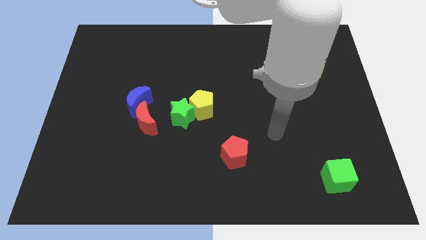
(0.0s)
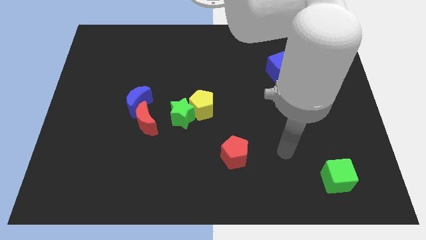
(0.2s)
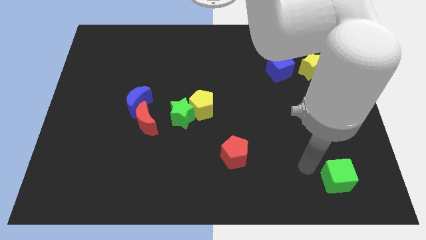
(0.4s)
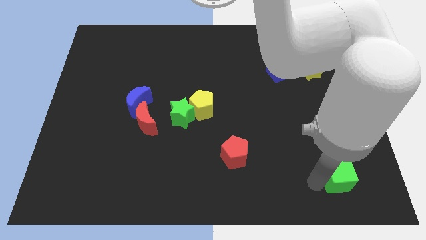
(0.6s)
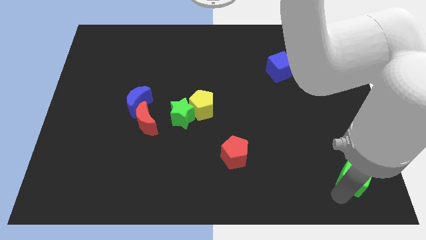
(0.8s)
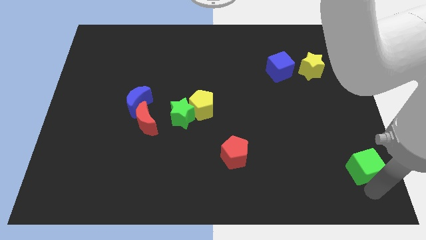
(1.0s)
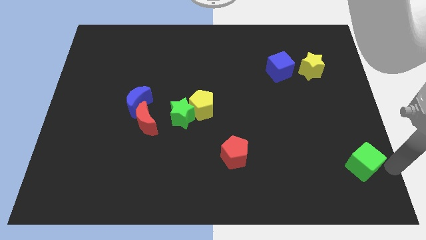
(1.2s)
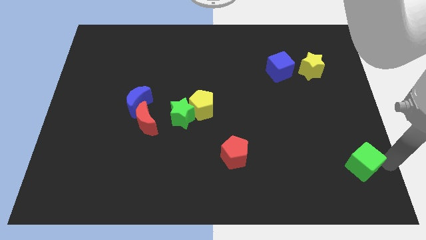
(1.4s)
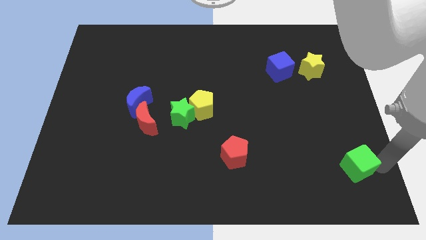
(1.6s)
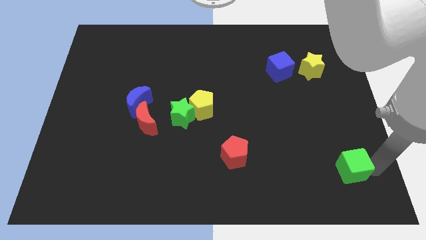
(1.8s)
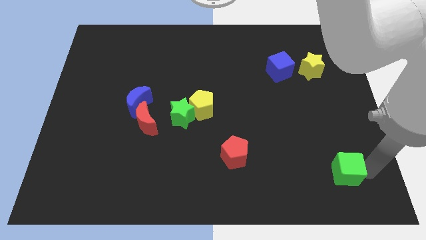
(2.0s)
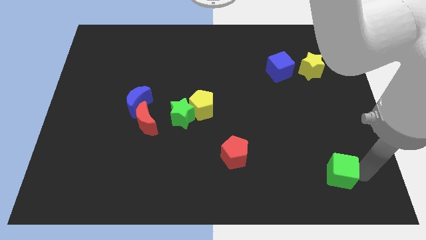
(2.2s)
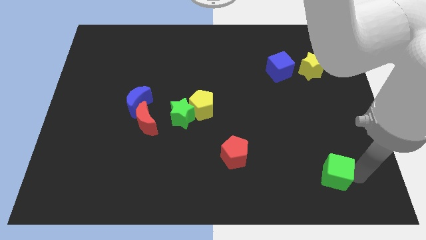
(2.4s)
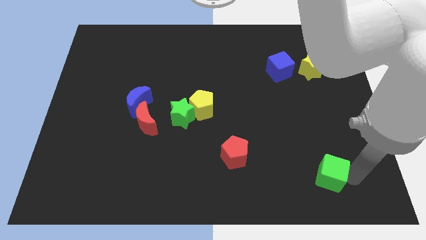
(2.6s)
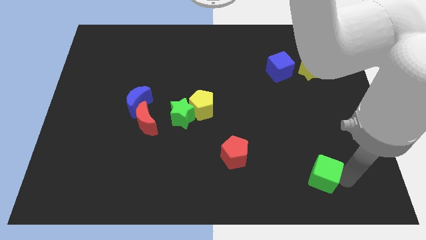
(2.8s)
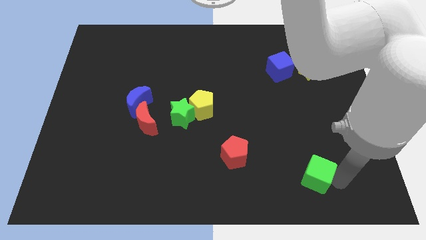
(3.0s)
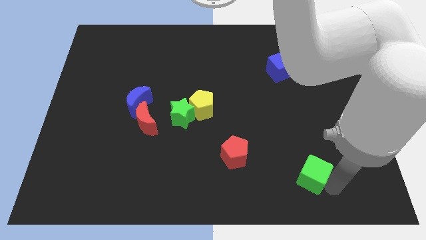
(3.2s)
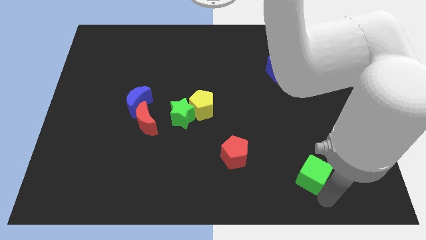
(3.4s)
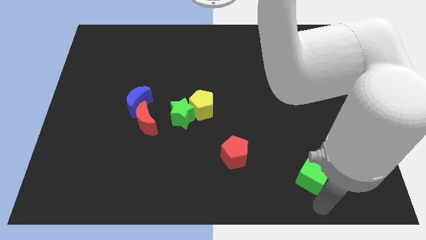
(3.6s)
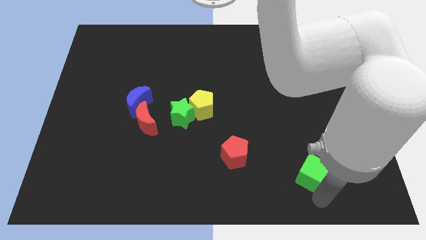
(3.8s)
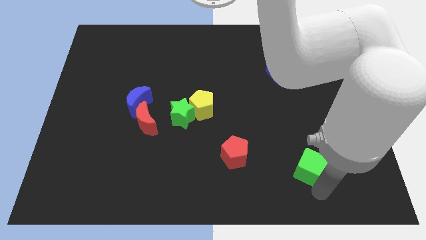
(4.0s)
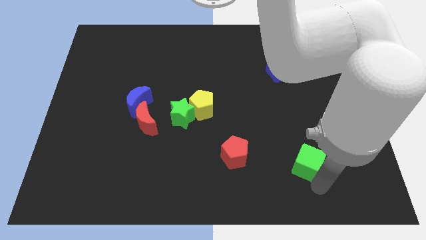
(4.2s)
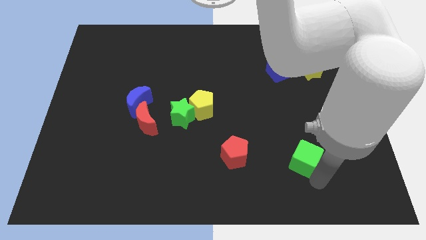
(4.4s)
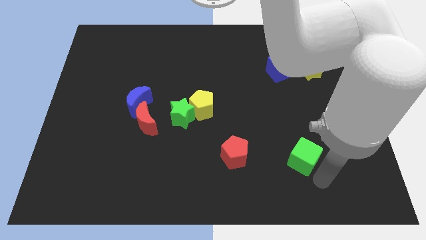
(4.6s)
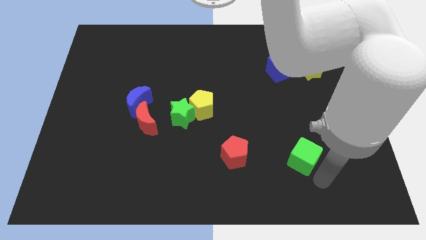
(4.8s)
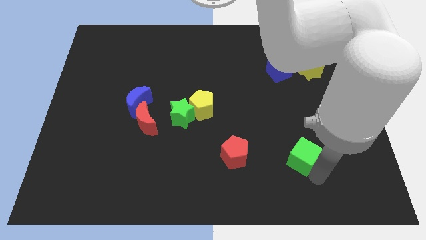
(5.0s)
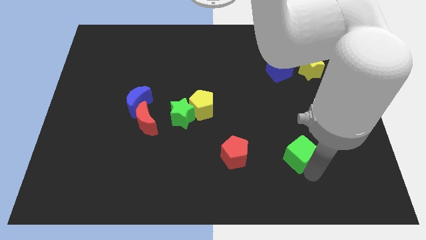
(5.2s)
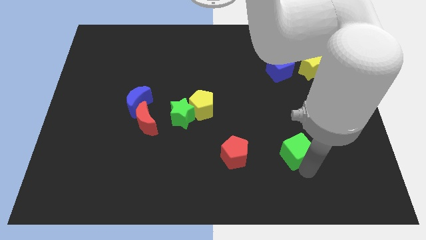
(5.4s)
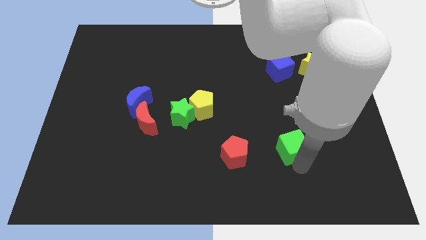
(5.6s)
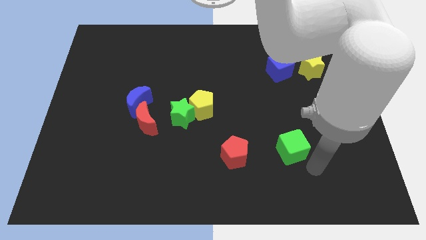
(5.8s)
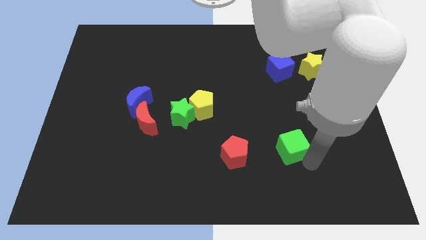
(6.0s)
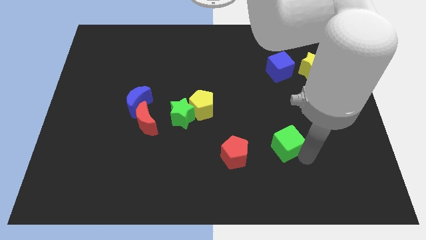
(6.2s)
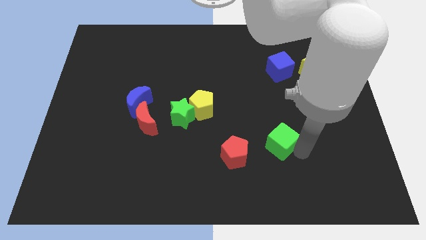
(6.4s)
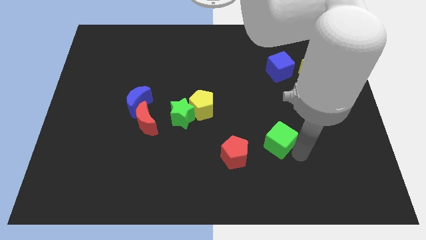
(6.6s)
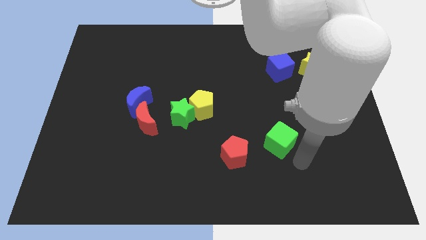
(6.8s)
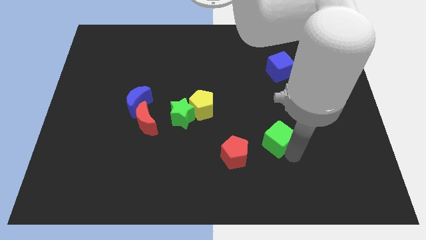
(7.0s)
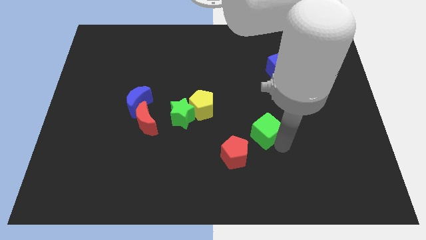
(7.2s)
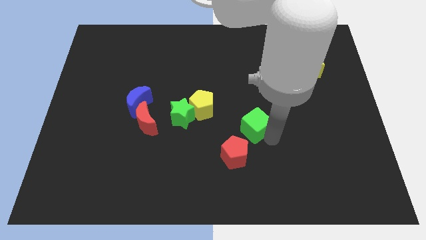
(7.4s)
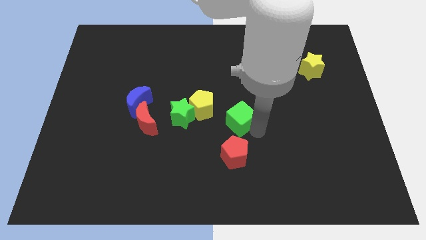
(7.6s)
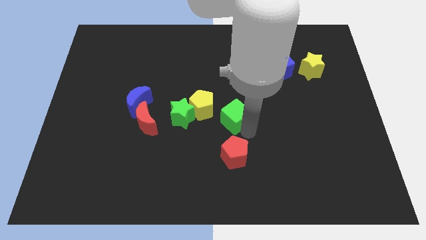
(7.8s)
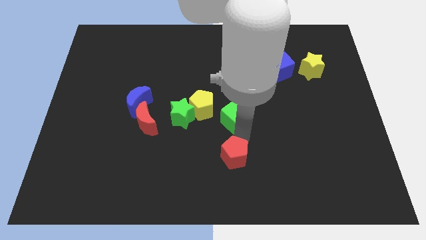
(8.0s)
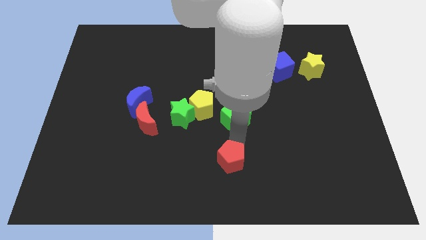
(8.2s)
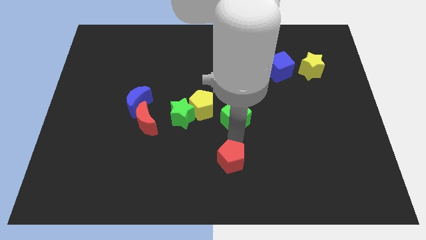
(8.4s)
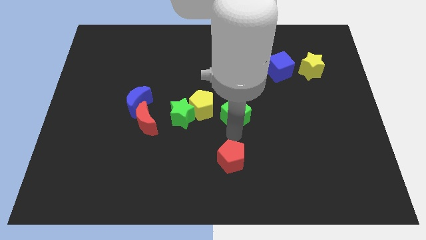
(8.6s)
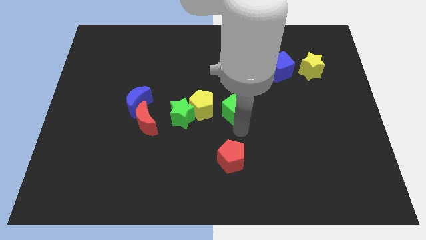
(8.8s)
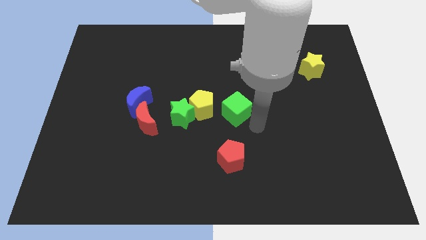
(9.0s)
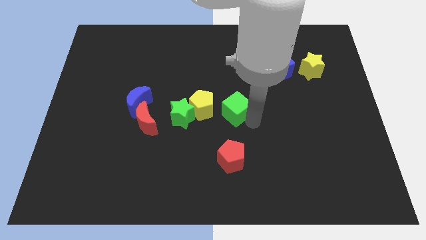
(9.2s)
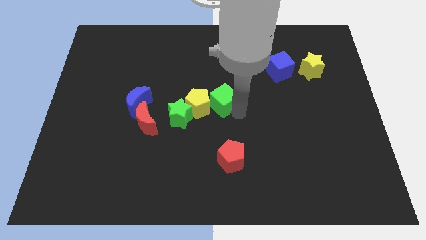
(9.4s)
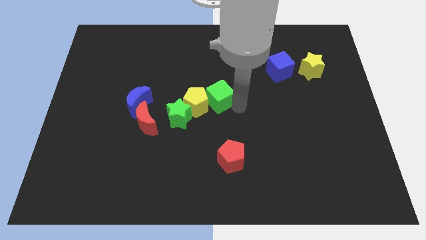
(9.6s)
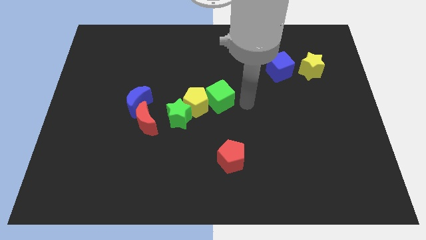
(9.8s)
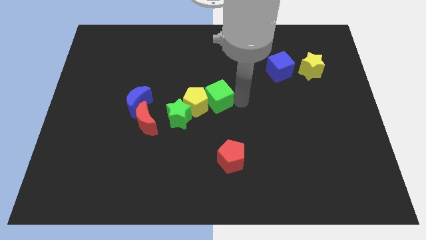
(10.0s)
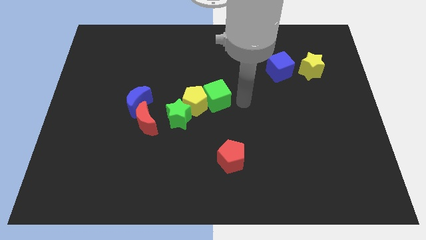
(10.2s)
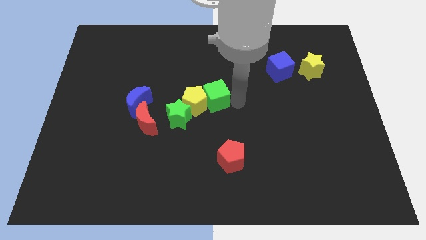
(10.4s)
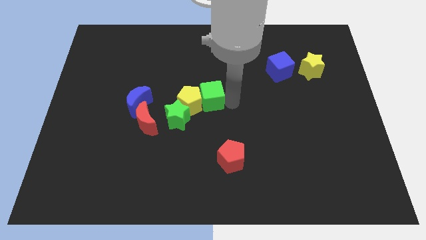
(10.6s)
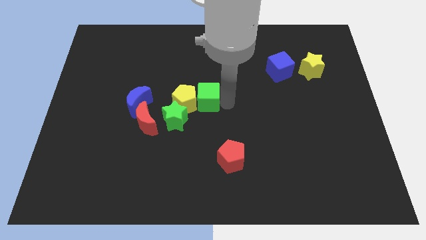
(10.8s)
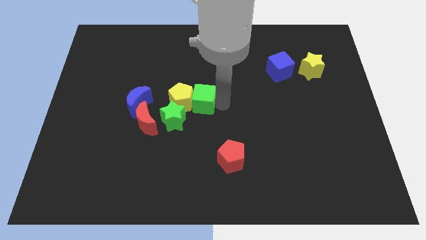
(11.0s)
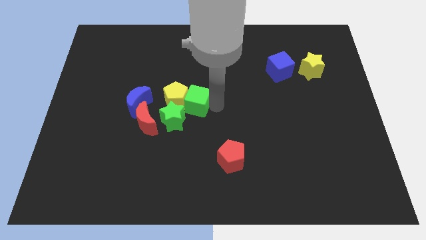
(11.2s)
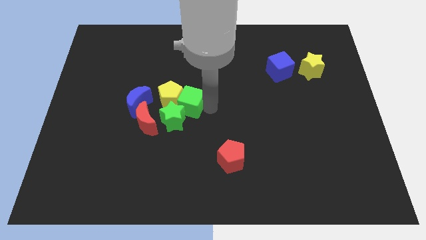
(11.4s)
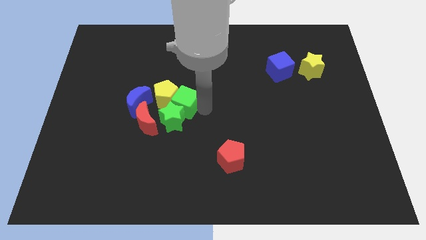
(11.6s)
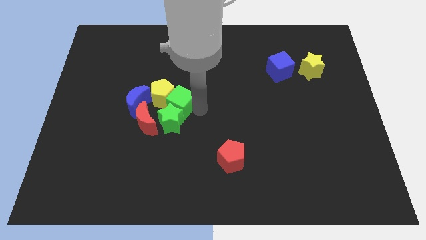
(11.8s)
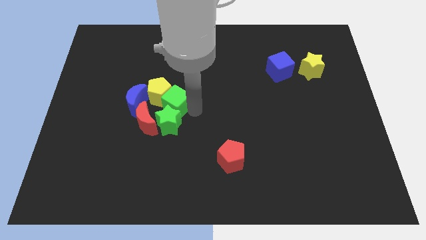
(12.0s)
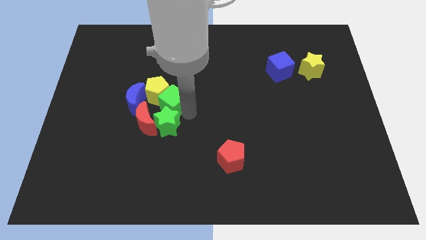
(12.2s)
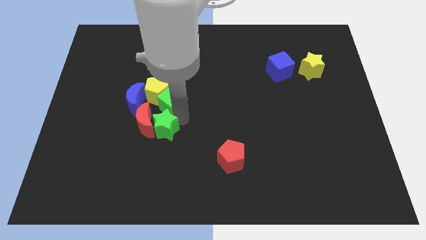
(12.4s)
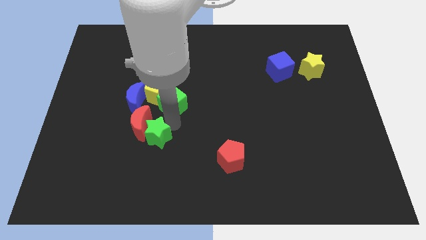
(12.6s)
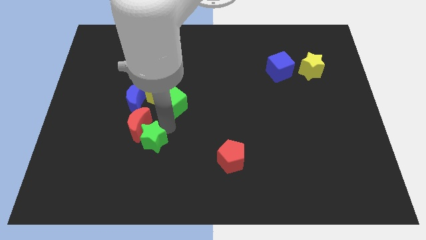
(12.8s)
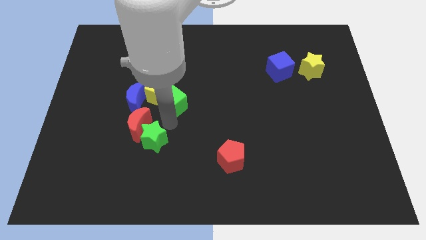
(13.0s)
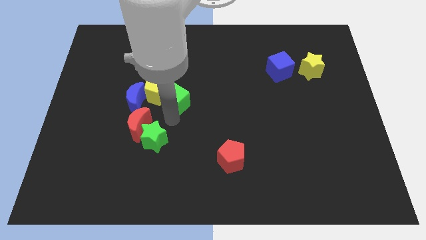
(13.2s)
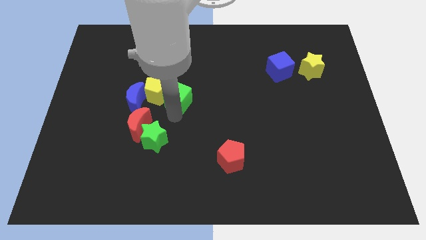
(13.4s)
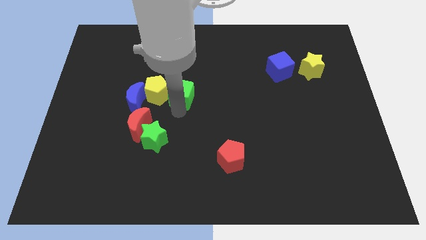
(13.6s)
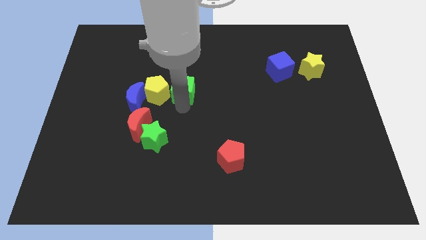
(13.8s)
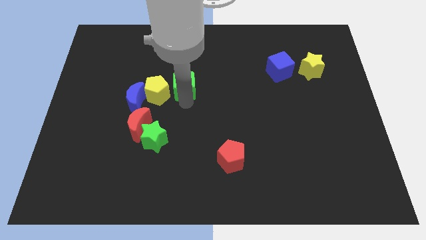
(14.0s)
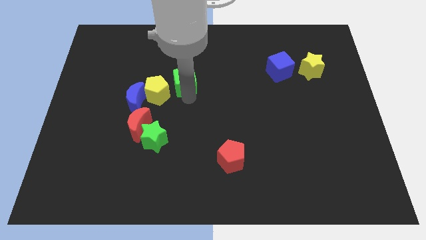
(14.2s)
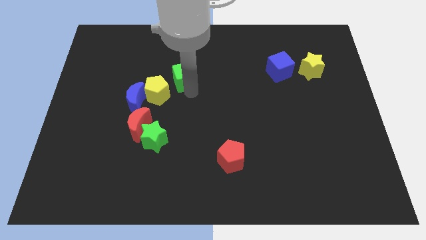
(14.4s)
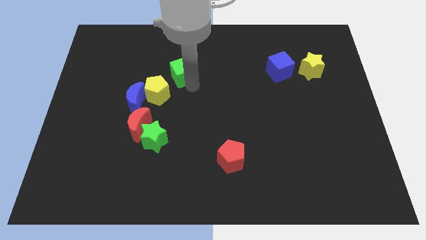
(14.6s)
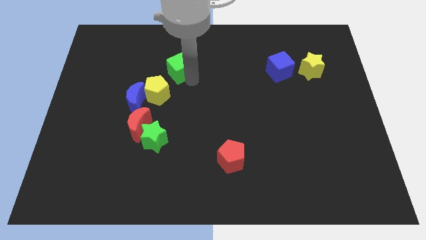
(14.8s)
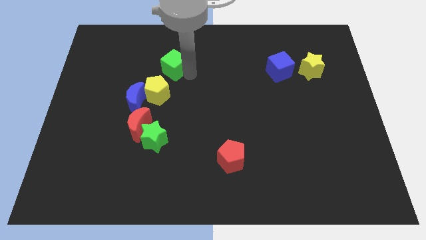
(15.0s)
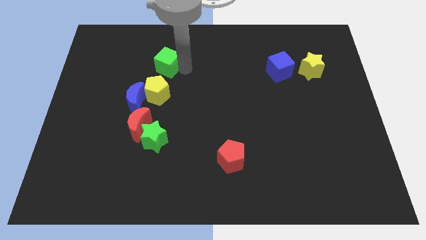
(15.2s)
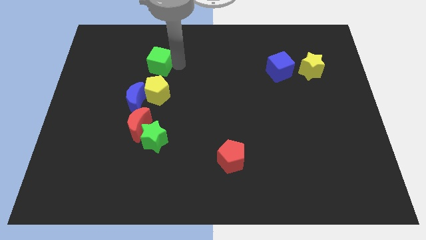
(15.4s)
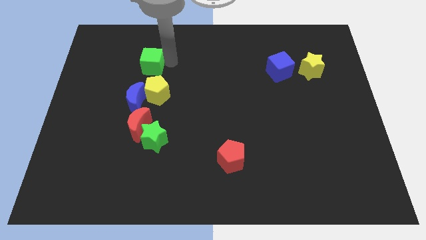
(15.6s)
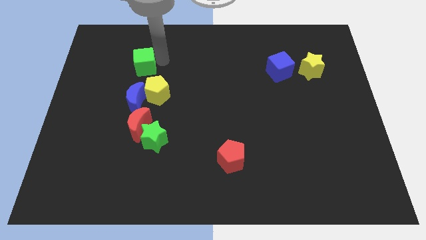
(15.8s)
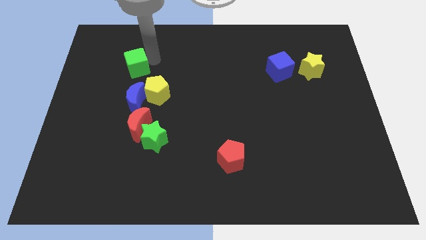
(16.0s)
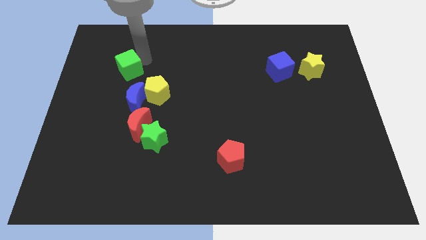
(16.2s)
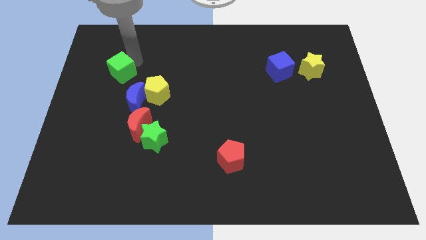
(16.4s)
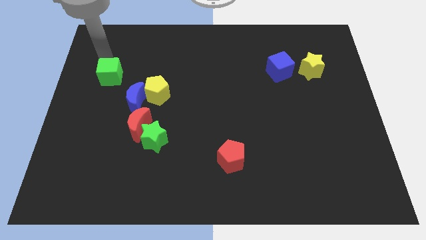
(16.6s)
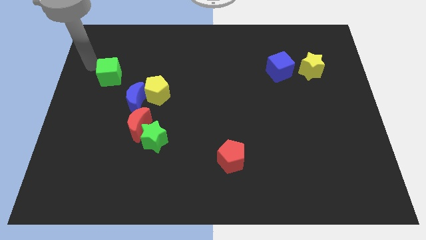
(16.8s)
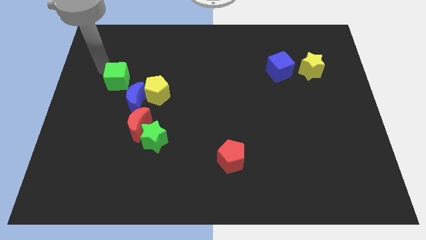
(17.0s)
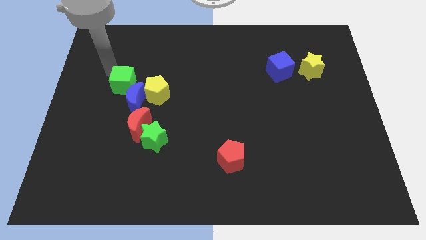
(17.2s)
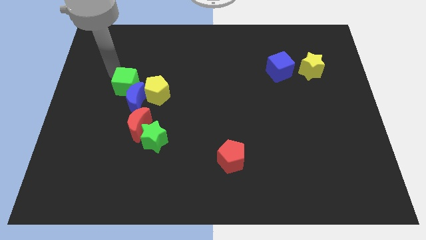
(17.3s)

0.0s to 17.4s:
slide the green cube towards the blue moon
